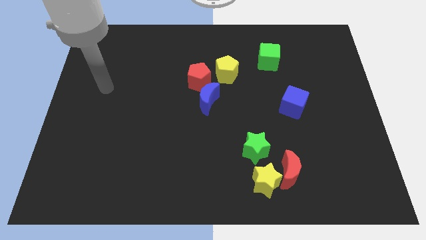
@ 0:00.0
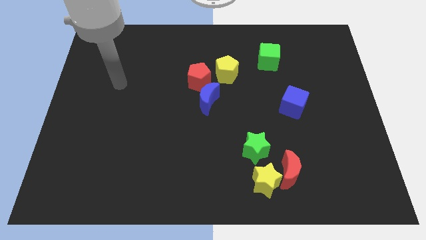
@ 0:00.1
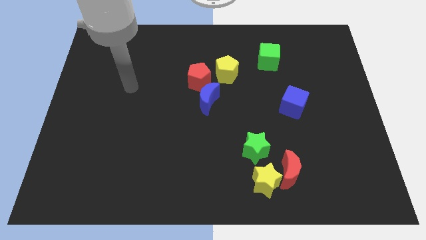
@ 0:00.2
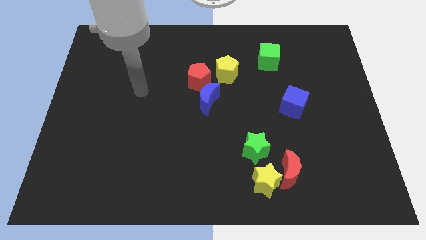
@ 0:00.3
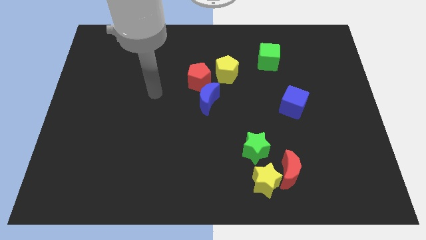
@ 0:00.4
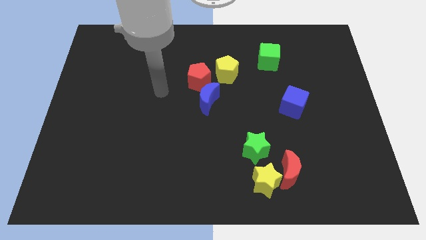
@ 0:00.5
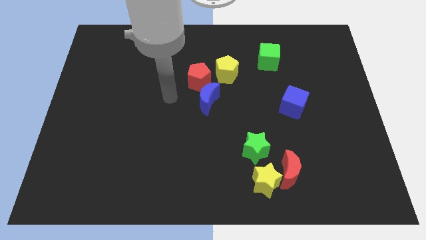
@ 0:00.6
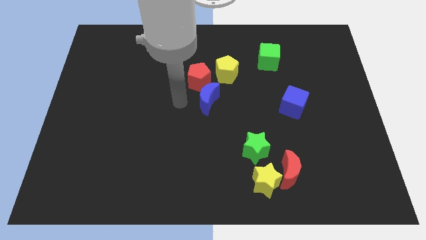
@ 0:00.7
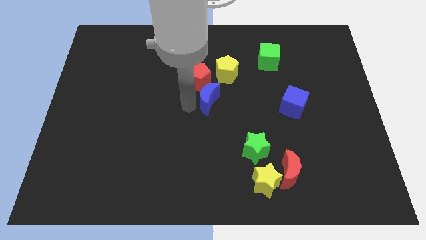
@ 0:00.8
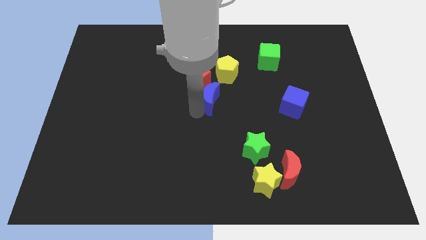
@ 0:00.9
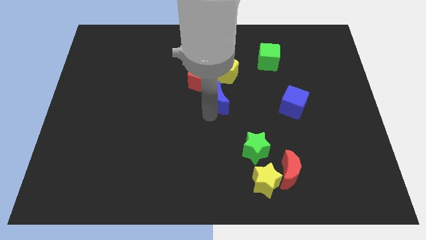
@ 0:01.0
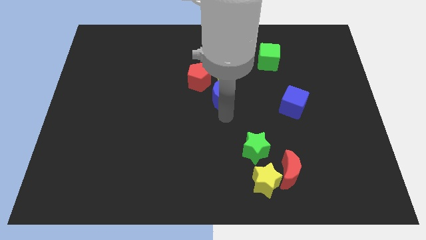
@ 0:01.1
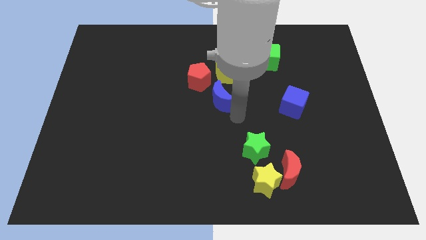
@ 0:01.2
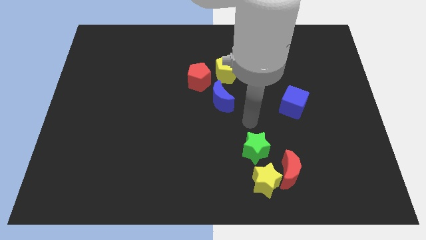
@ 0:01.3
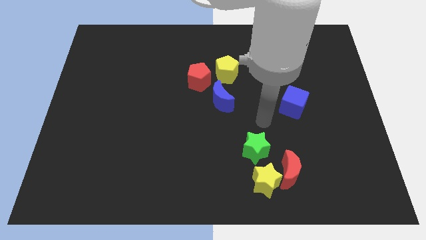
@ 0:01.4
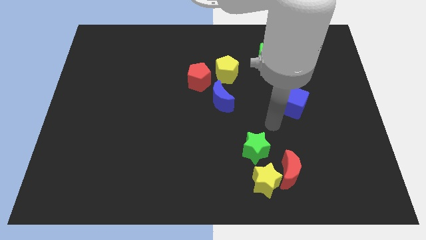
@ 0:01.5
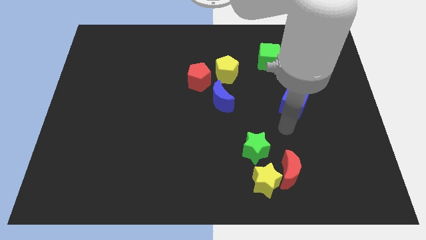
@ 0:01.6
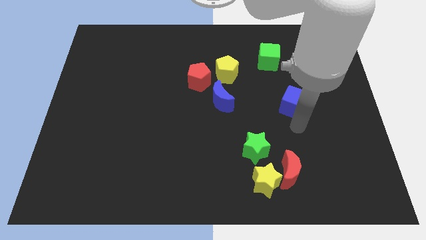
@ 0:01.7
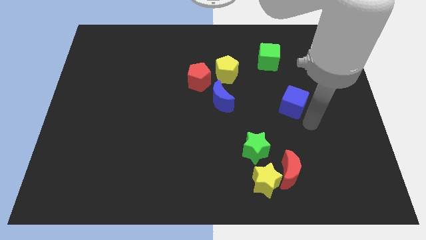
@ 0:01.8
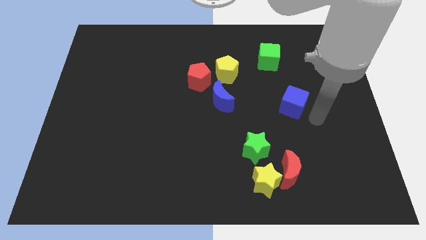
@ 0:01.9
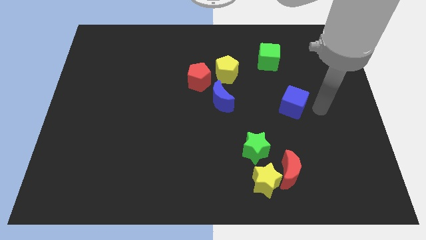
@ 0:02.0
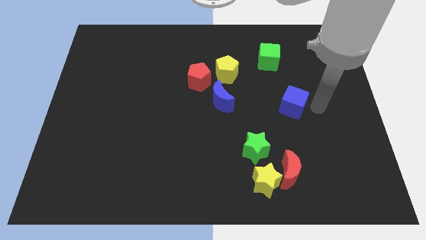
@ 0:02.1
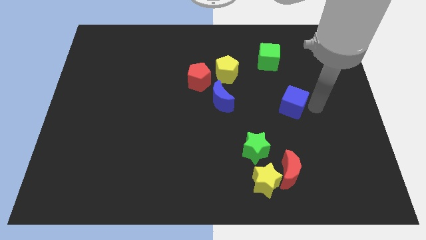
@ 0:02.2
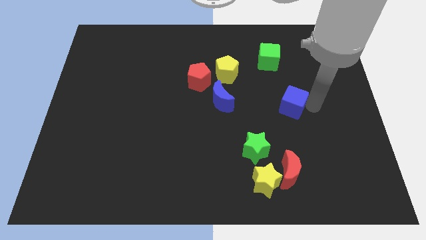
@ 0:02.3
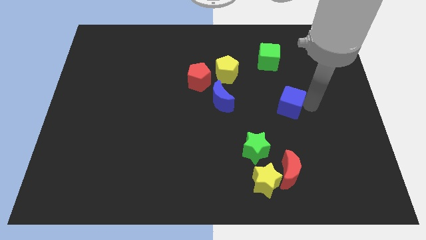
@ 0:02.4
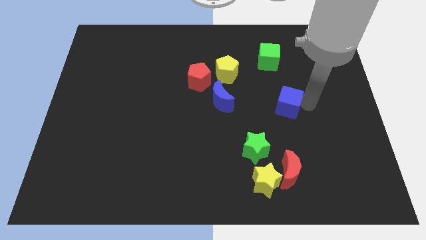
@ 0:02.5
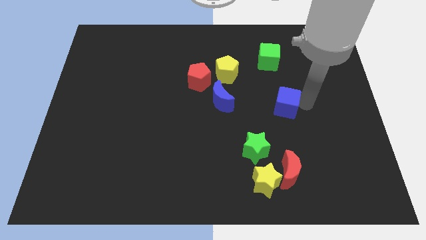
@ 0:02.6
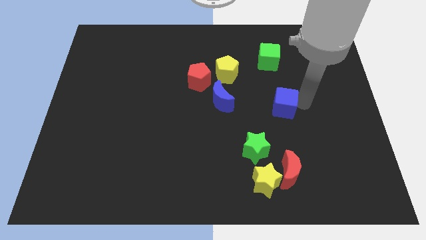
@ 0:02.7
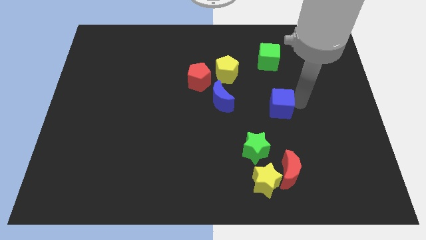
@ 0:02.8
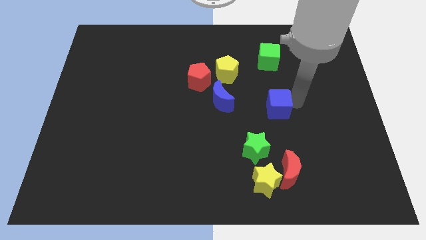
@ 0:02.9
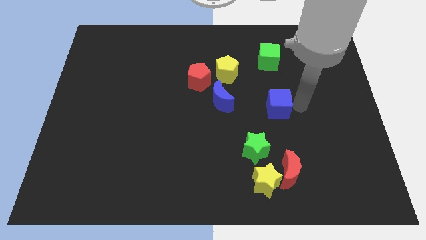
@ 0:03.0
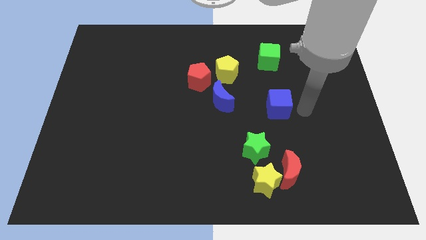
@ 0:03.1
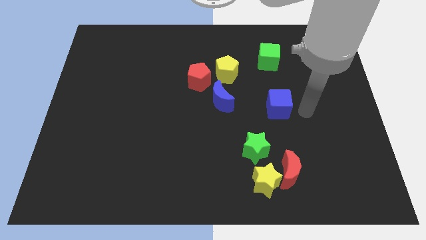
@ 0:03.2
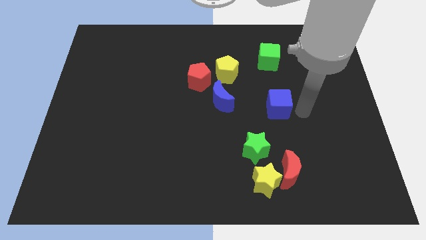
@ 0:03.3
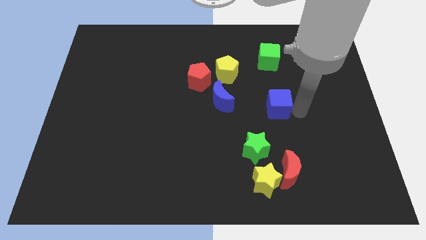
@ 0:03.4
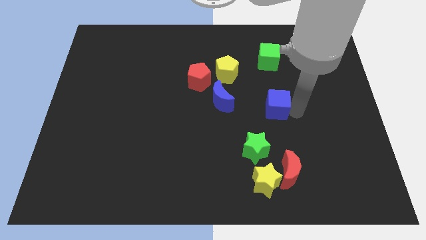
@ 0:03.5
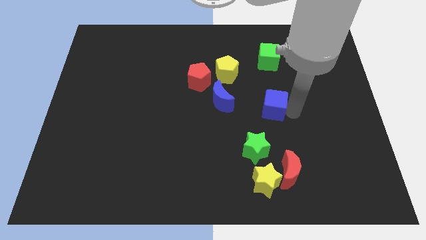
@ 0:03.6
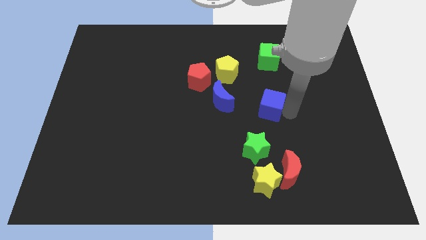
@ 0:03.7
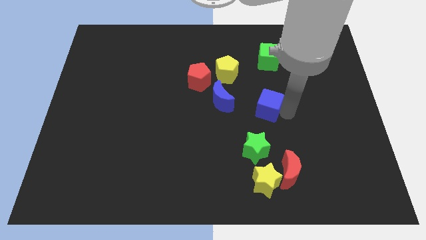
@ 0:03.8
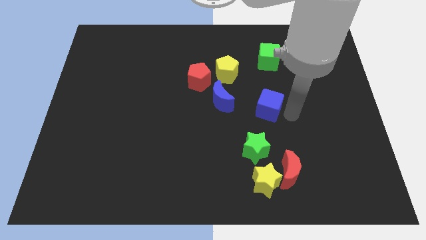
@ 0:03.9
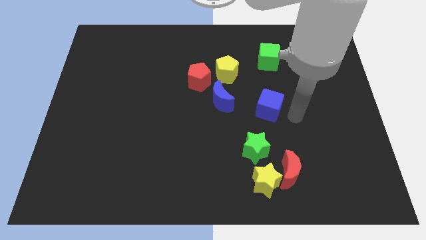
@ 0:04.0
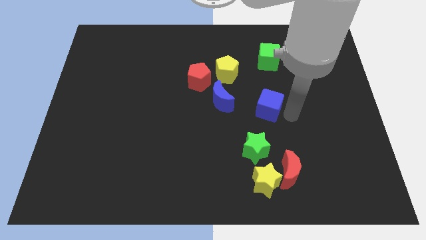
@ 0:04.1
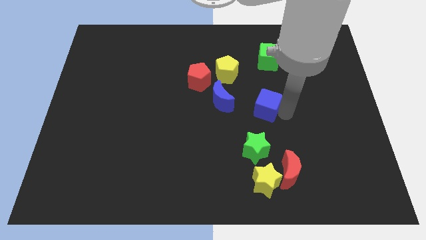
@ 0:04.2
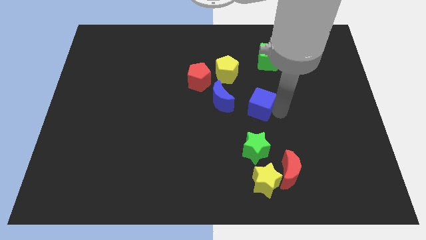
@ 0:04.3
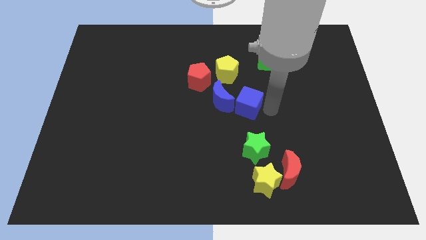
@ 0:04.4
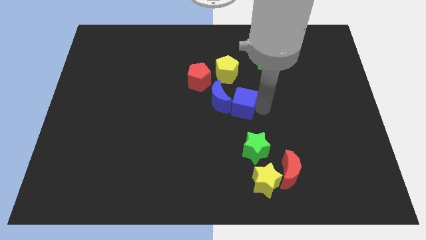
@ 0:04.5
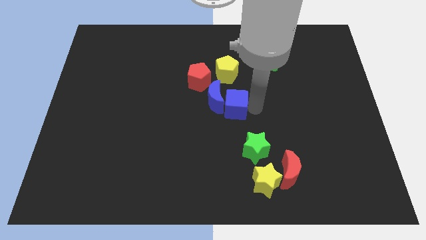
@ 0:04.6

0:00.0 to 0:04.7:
move the blue cube to the bottom right side of the red pentagon

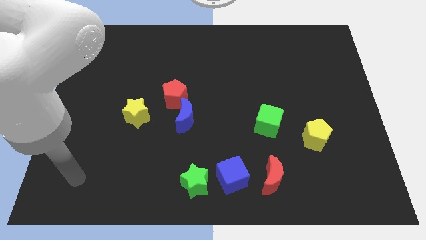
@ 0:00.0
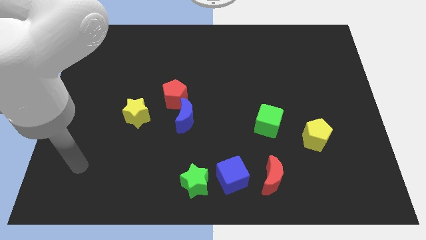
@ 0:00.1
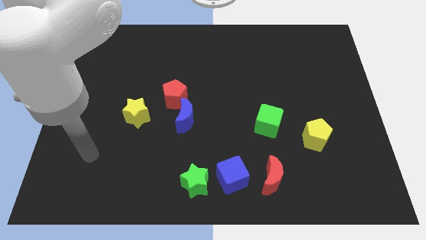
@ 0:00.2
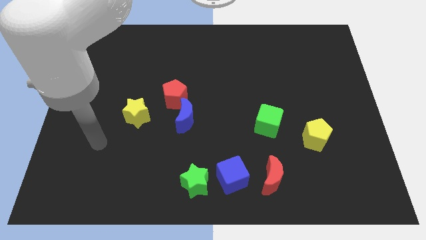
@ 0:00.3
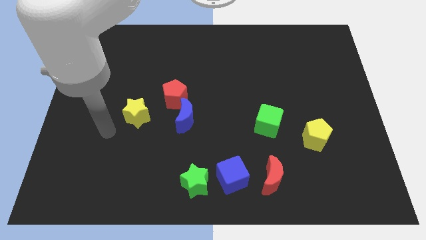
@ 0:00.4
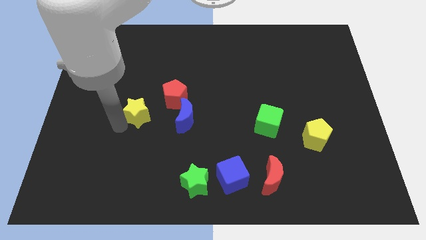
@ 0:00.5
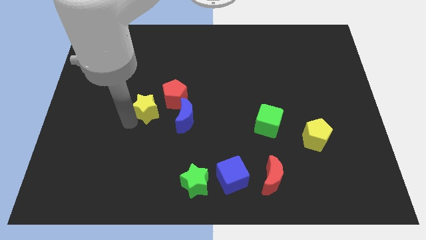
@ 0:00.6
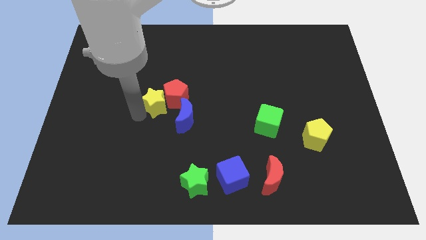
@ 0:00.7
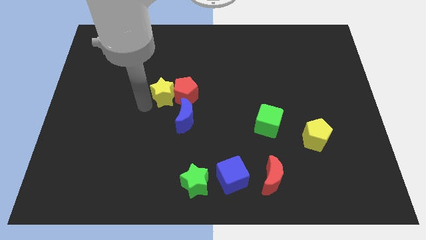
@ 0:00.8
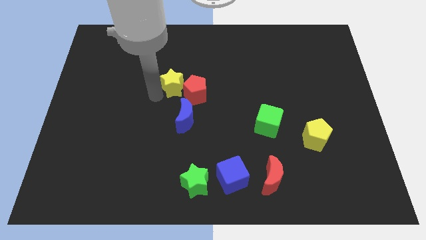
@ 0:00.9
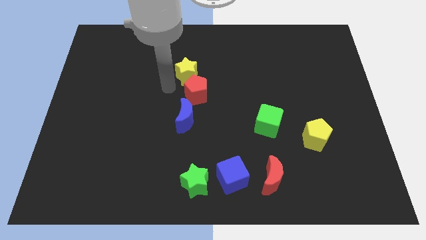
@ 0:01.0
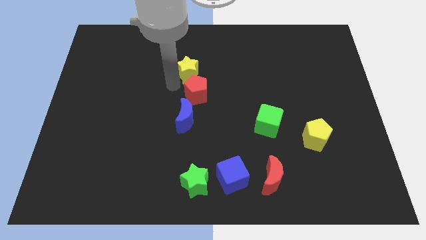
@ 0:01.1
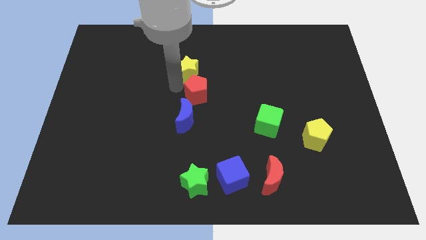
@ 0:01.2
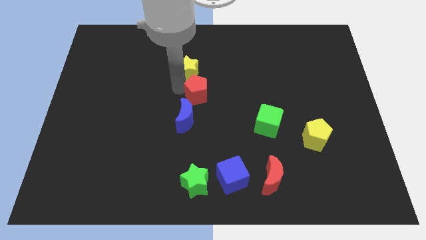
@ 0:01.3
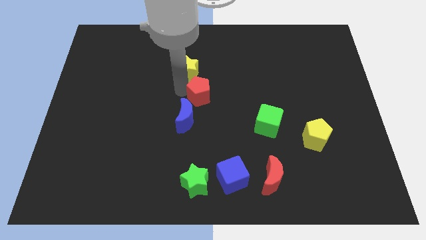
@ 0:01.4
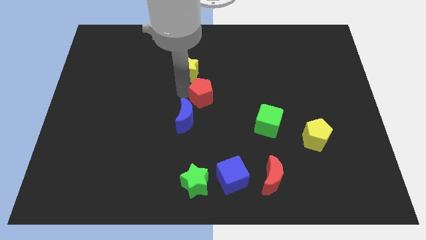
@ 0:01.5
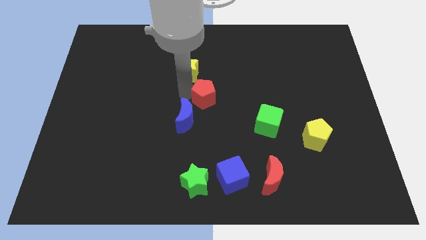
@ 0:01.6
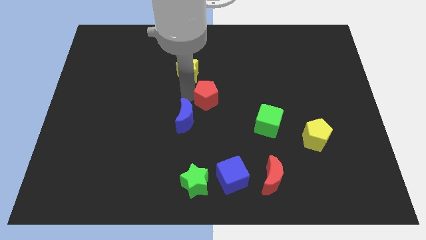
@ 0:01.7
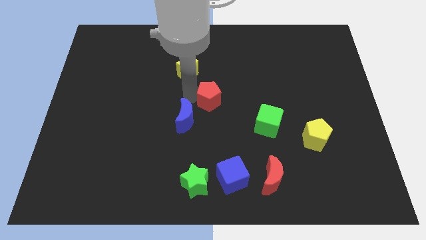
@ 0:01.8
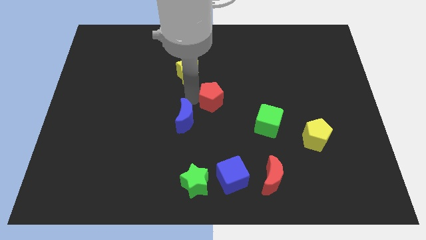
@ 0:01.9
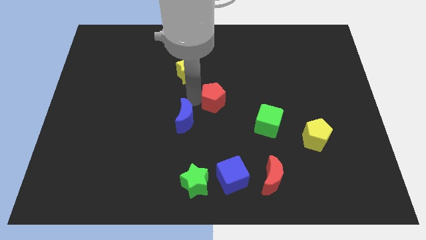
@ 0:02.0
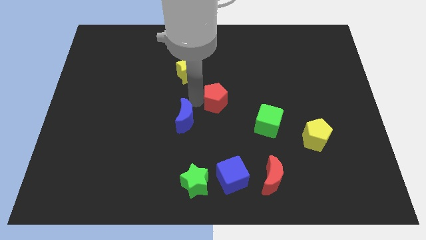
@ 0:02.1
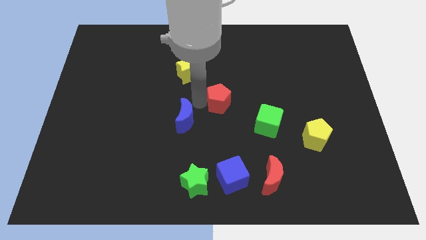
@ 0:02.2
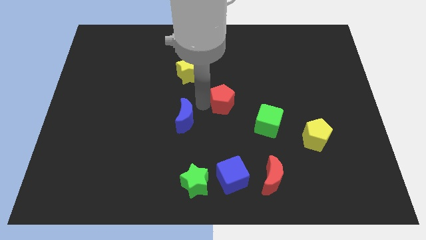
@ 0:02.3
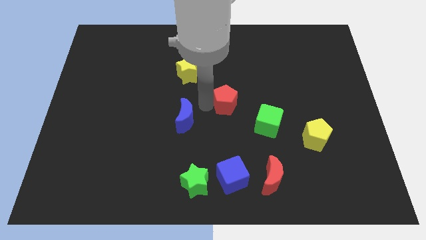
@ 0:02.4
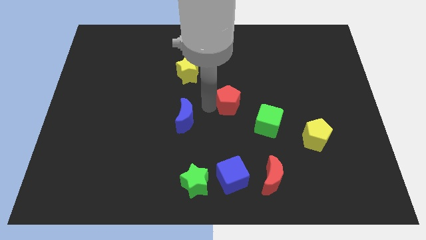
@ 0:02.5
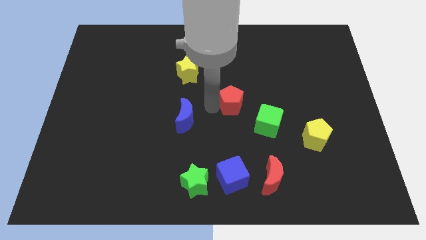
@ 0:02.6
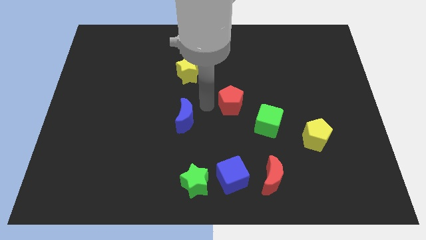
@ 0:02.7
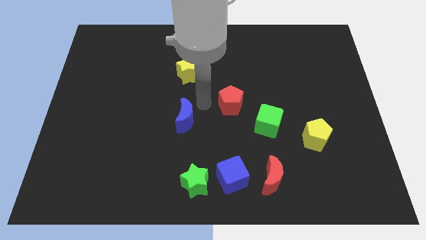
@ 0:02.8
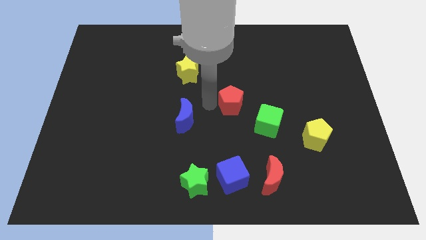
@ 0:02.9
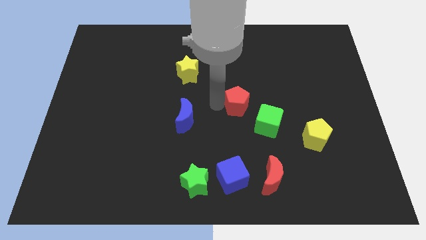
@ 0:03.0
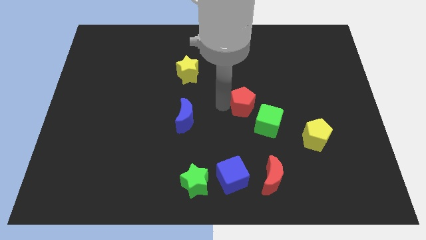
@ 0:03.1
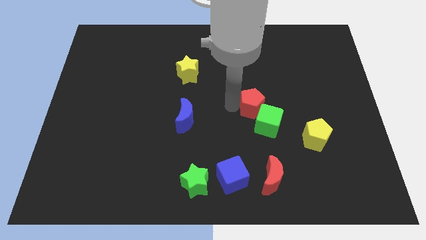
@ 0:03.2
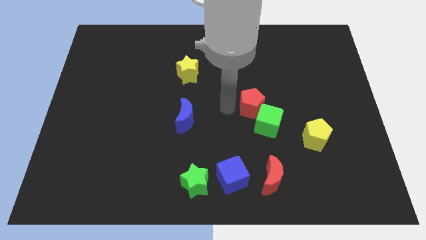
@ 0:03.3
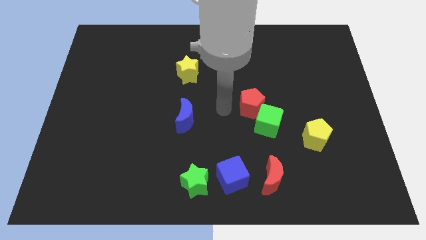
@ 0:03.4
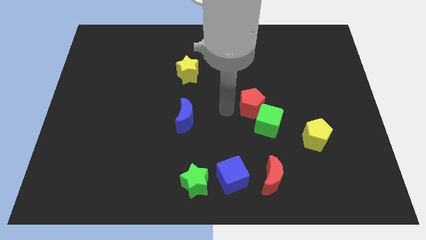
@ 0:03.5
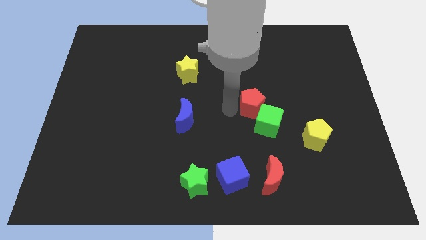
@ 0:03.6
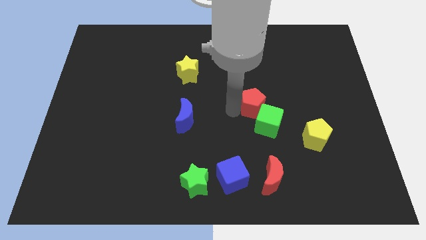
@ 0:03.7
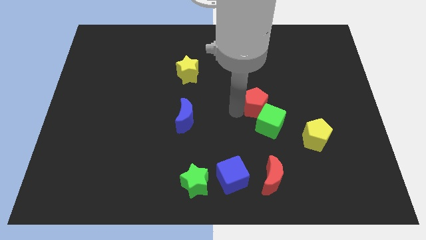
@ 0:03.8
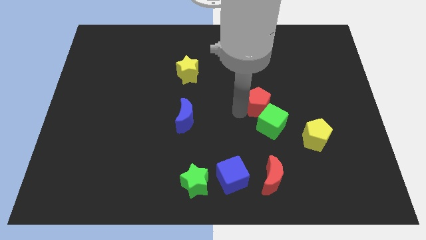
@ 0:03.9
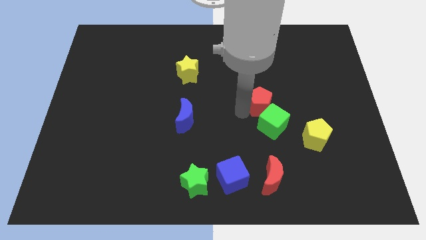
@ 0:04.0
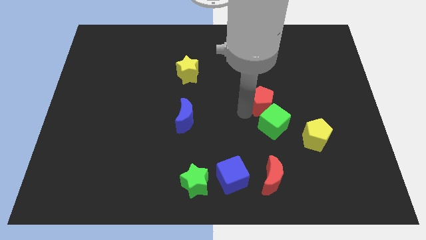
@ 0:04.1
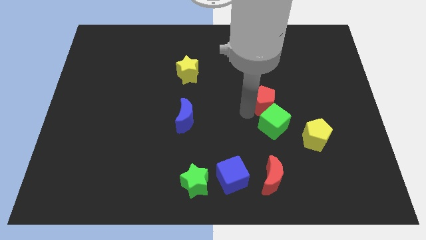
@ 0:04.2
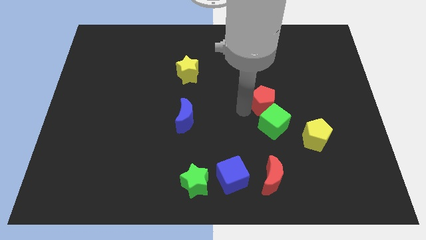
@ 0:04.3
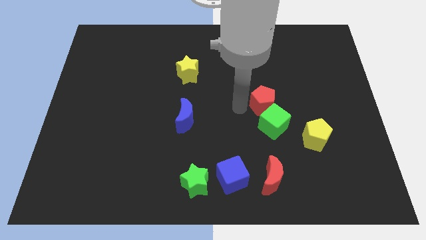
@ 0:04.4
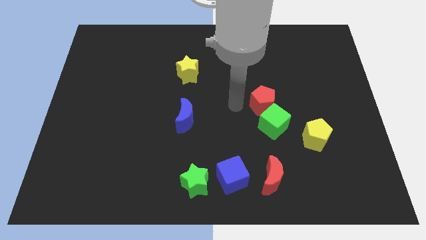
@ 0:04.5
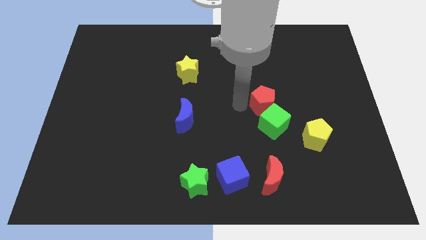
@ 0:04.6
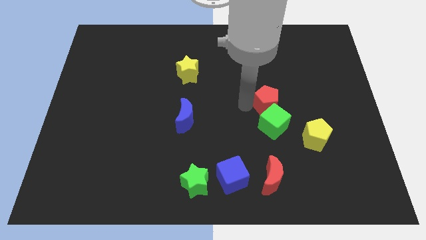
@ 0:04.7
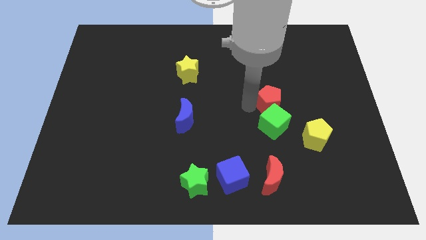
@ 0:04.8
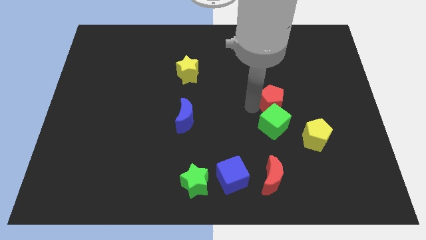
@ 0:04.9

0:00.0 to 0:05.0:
push the red pentagon to the top left of the yellow pentagon
